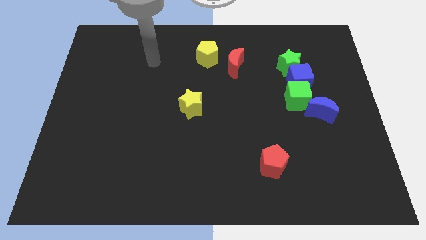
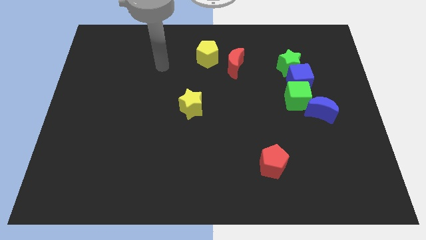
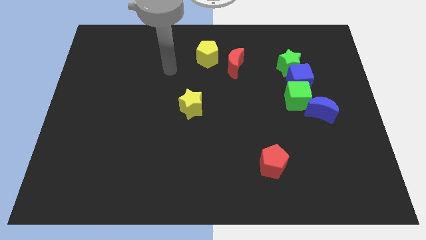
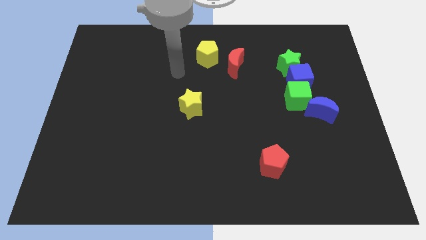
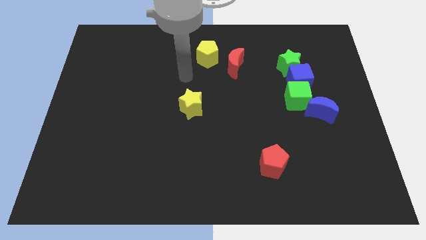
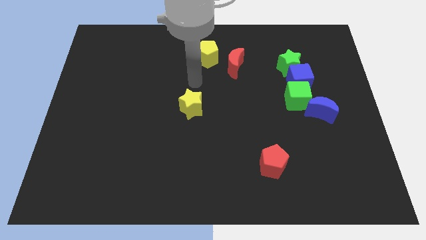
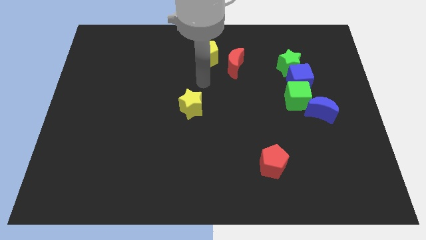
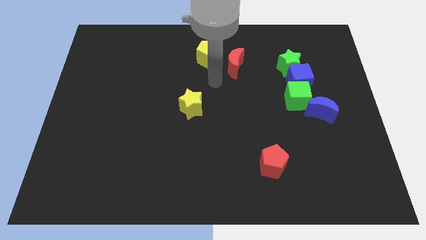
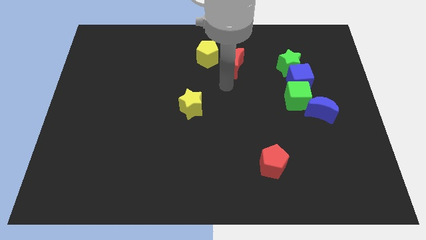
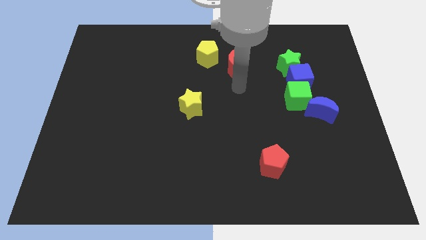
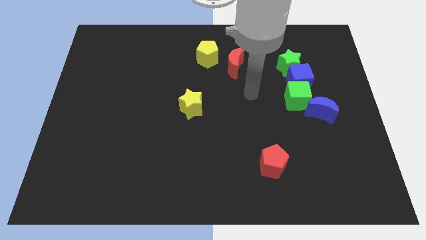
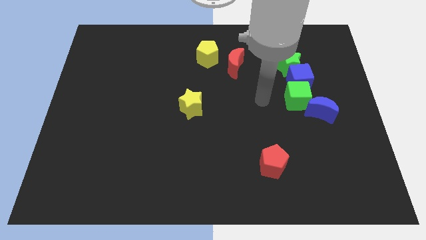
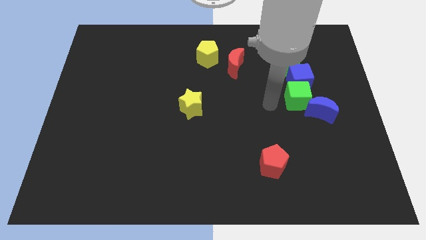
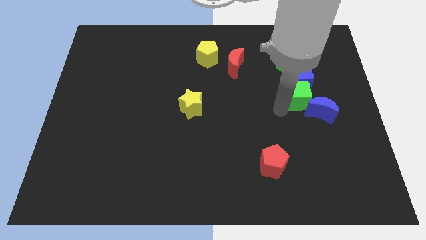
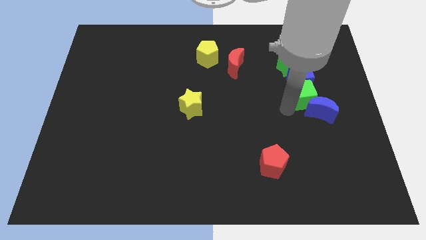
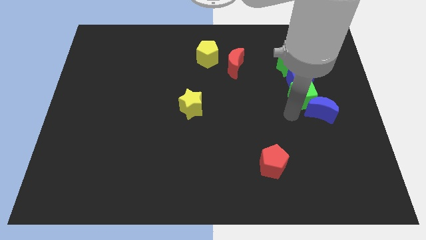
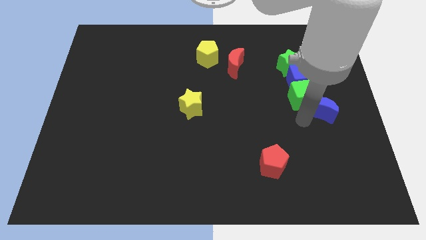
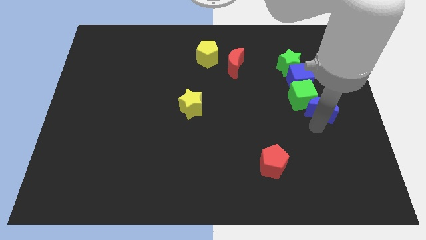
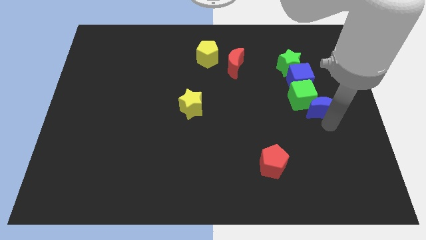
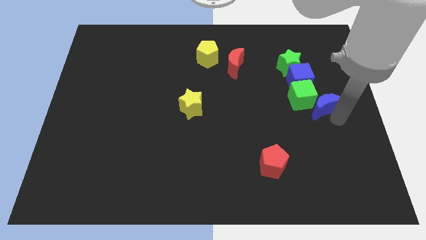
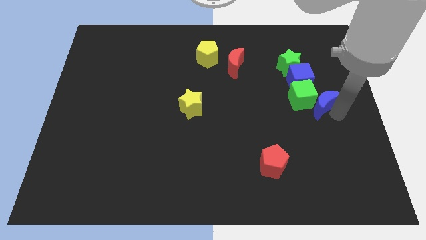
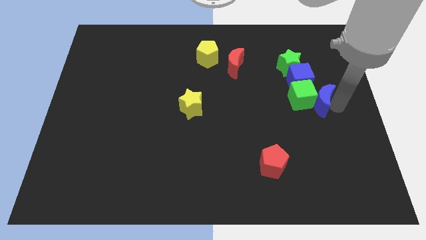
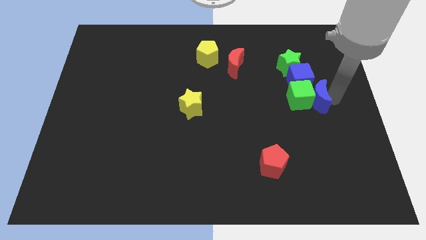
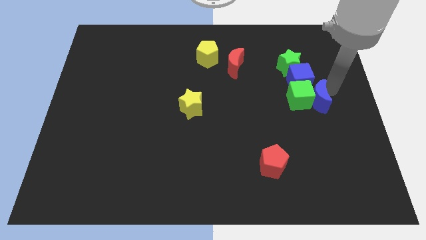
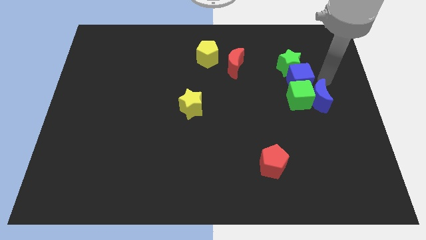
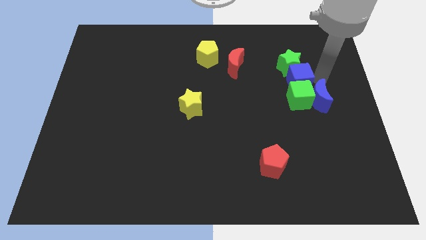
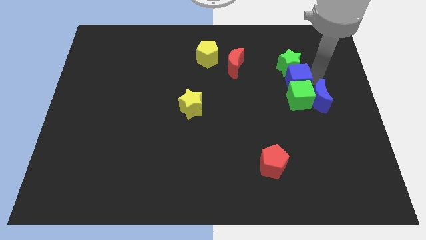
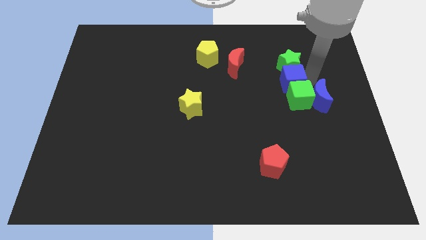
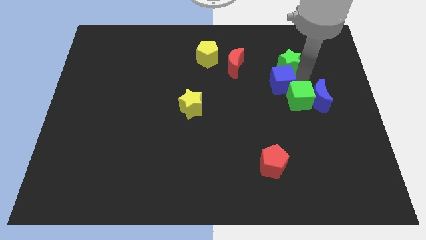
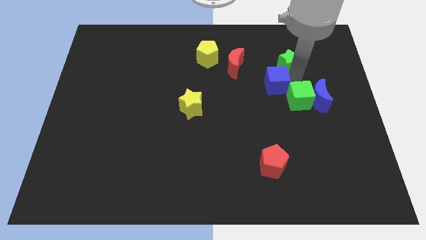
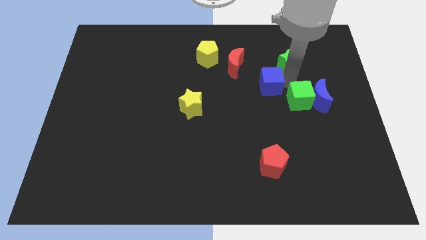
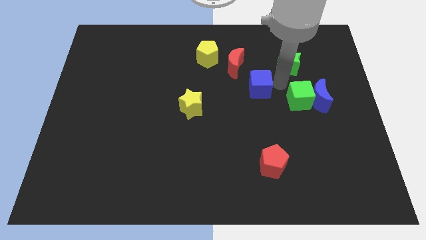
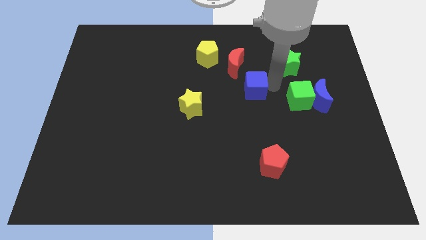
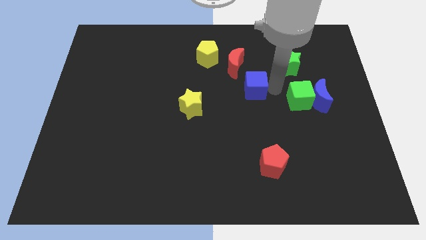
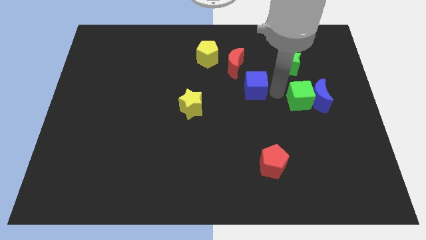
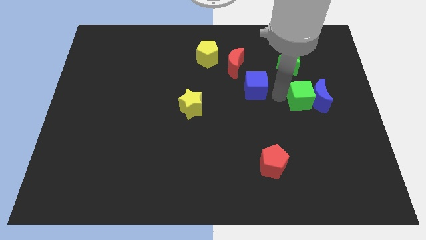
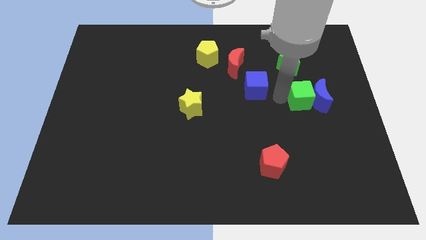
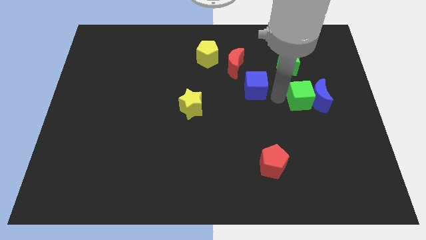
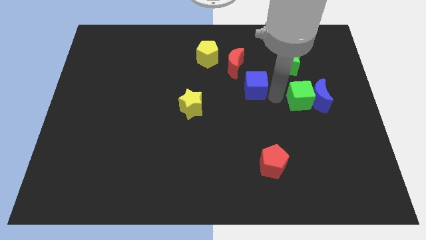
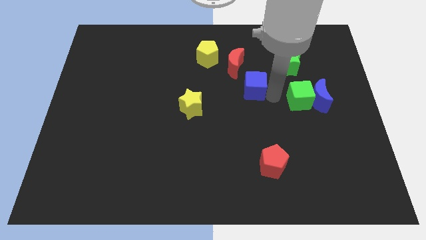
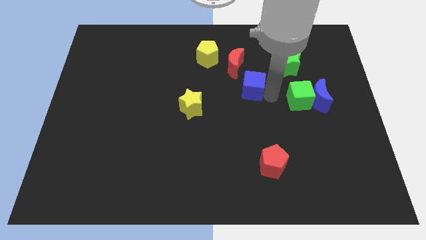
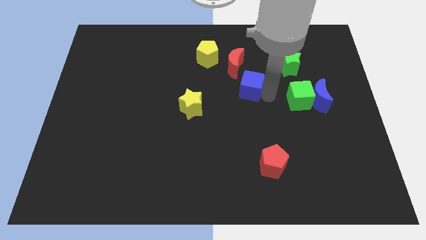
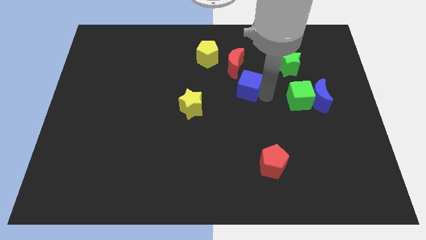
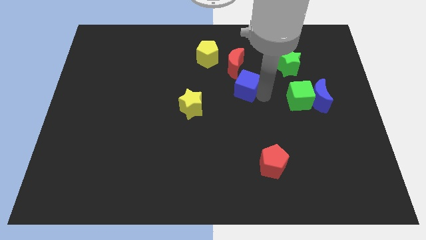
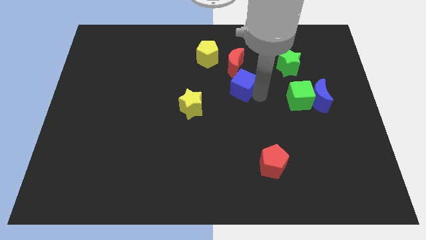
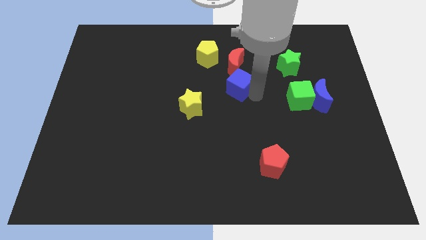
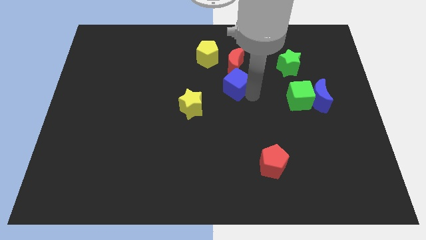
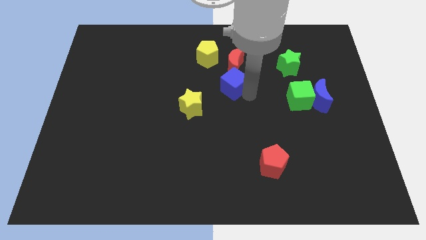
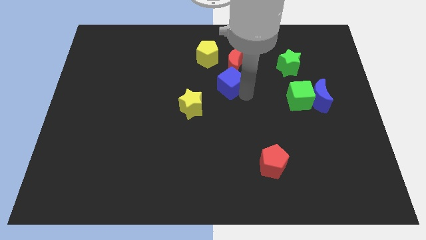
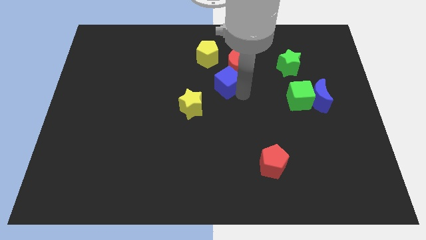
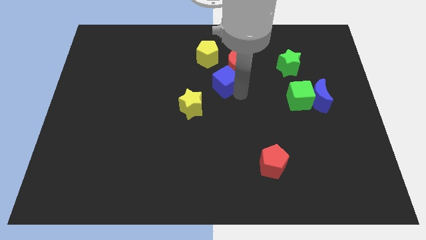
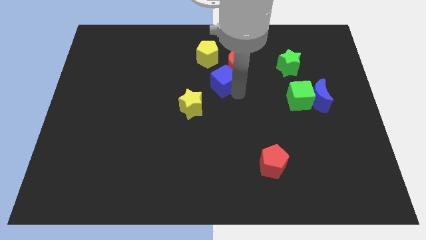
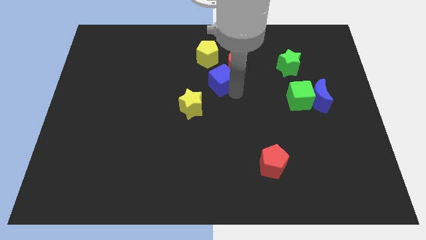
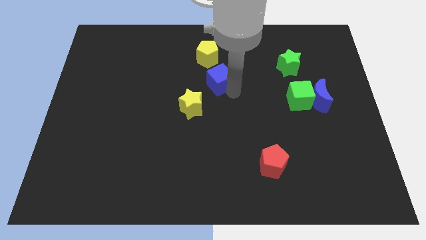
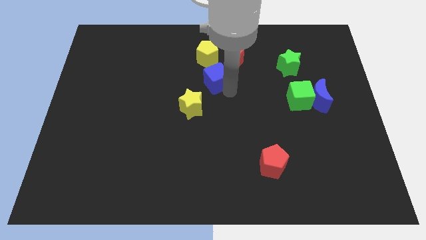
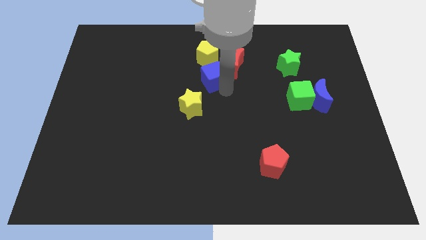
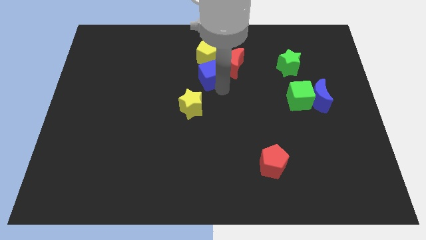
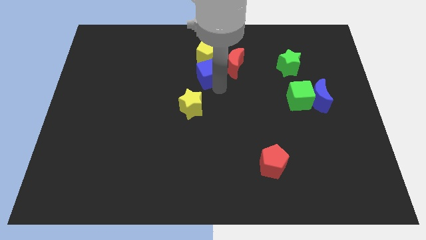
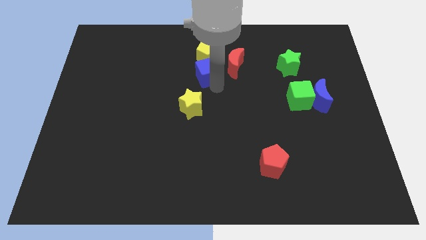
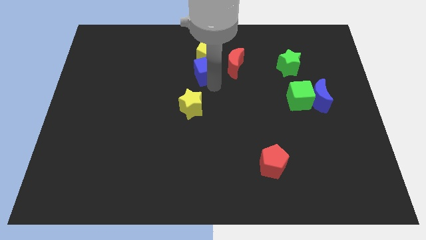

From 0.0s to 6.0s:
move the blue cube close to the yellow pentagon

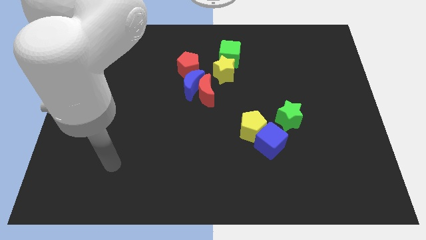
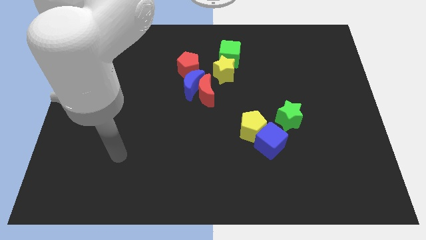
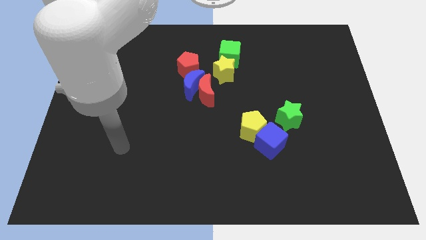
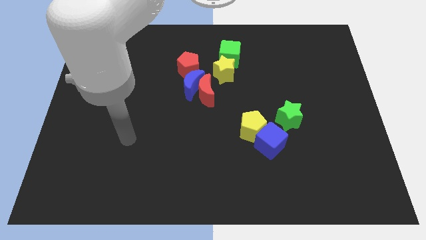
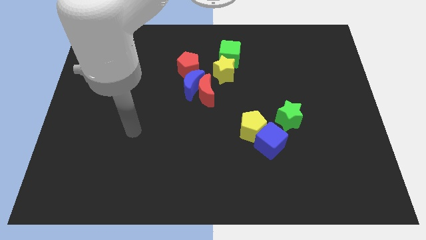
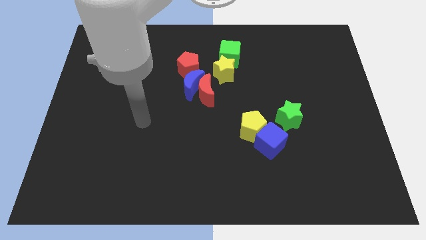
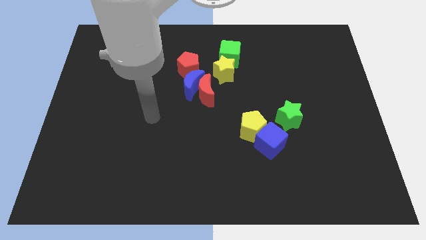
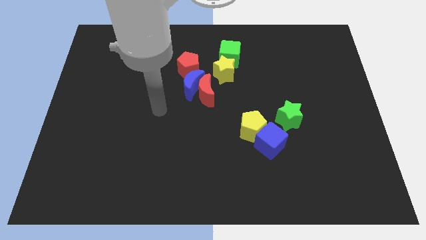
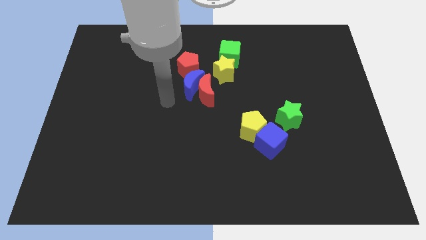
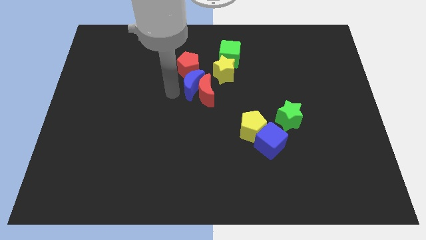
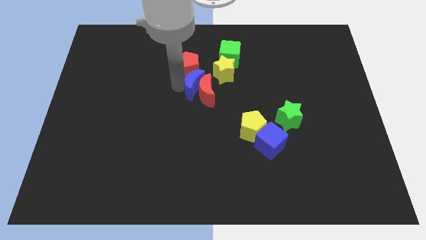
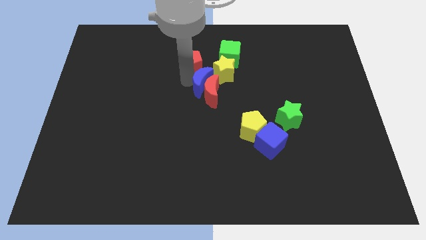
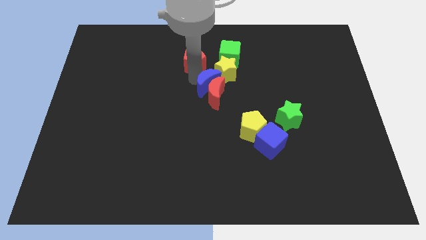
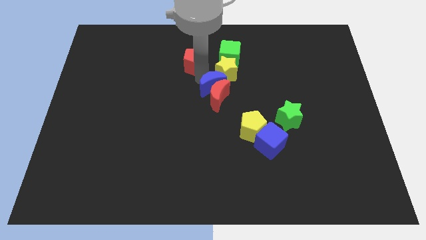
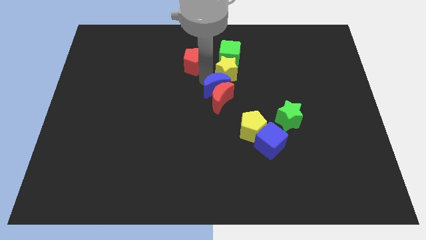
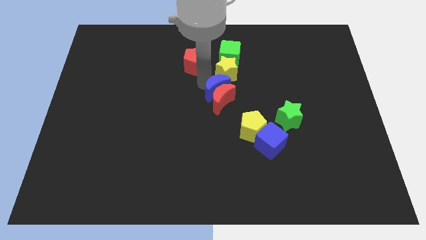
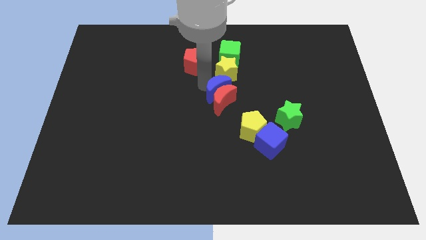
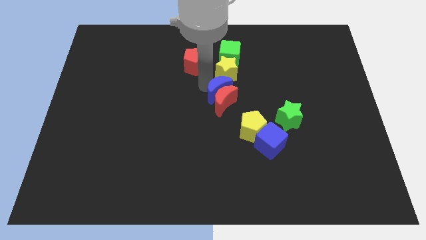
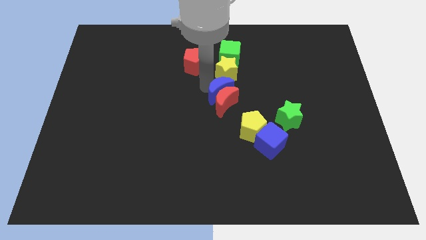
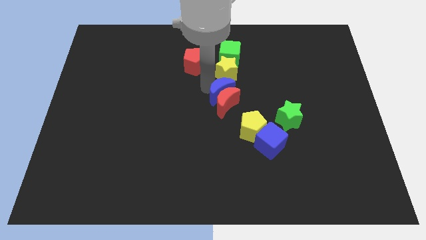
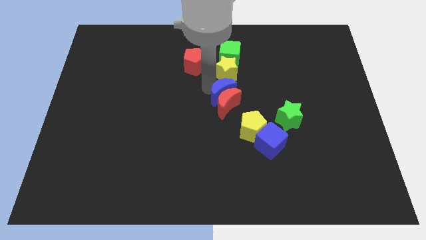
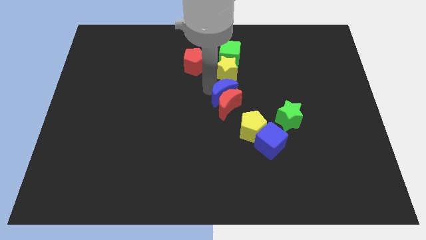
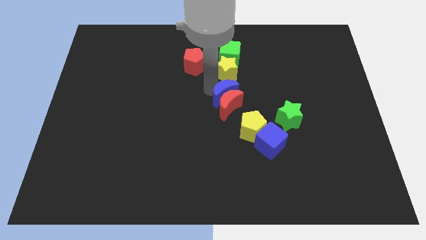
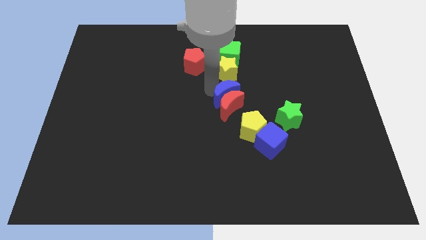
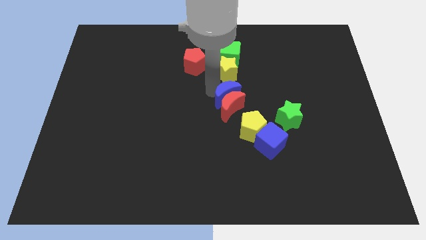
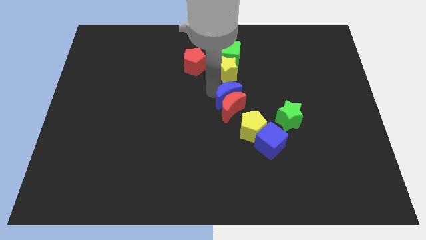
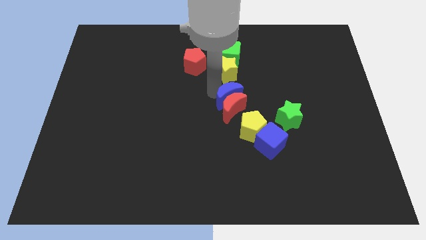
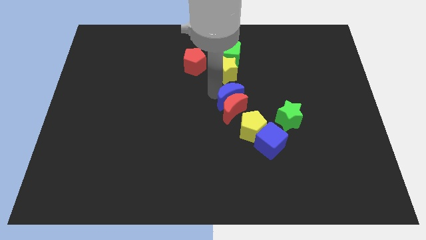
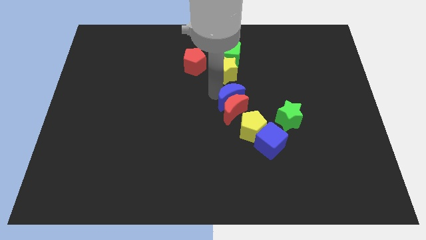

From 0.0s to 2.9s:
put the red moon close to the yellow pentagon
